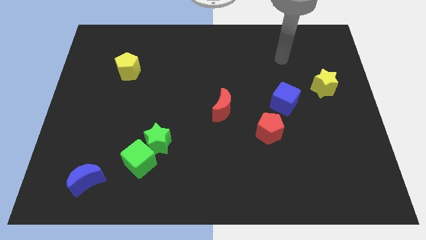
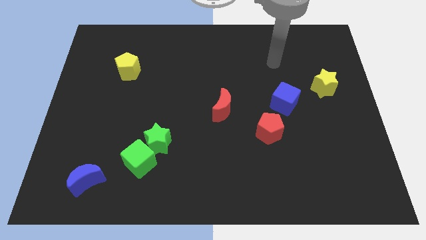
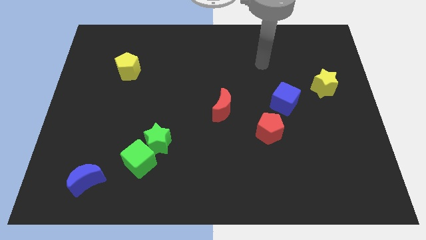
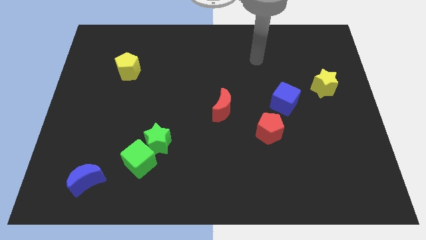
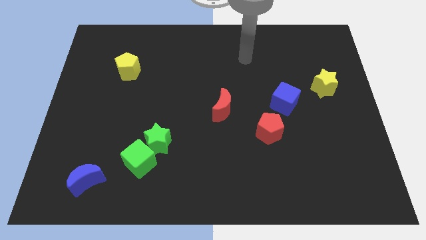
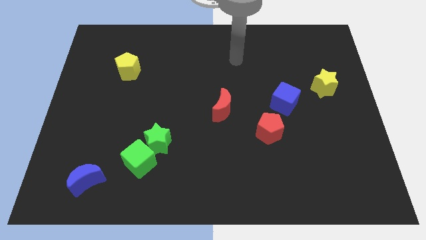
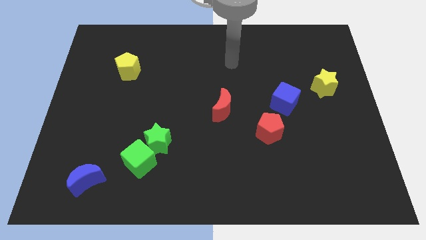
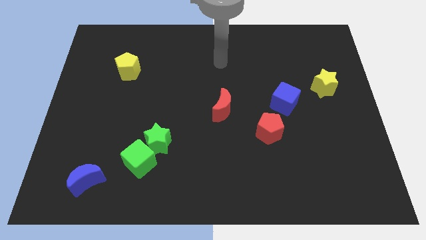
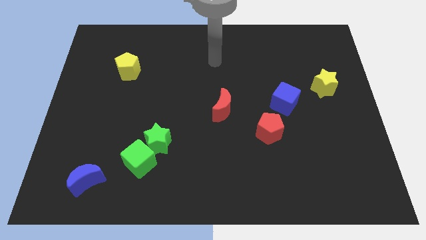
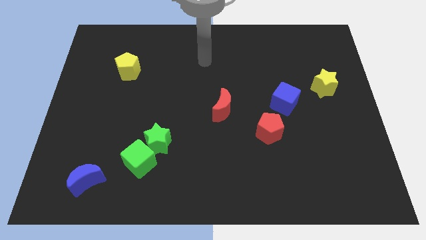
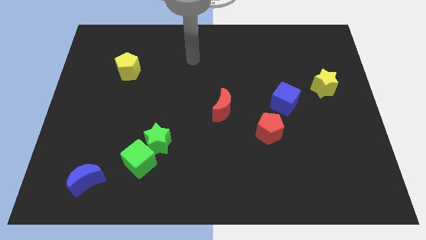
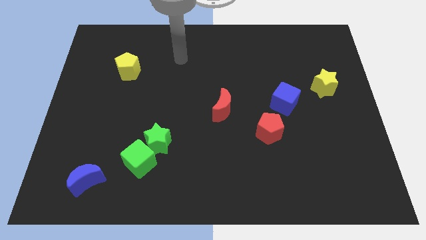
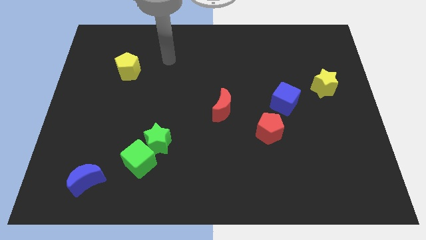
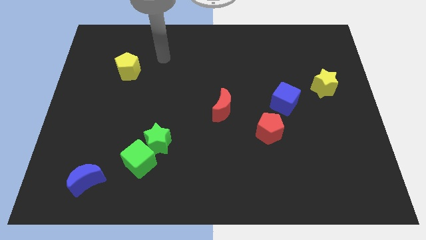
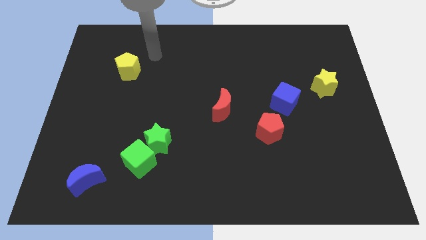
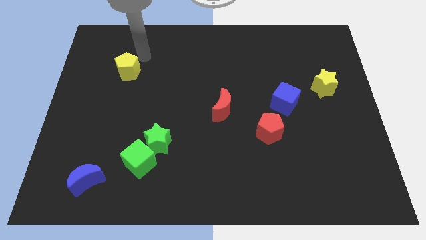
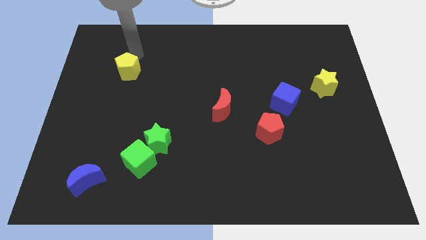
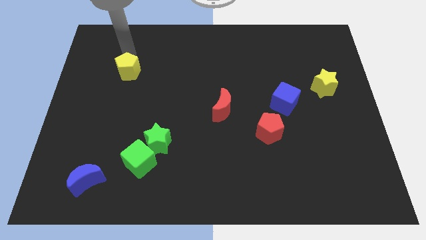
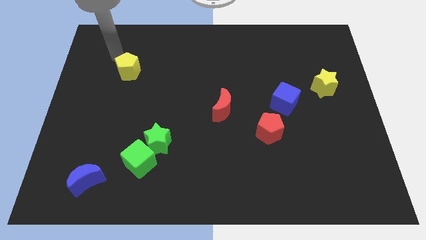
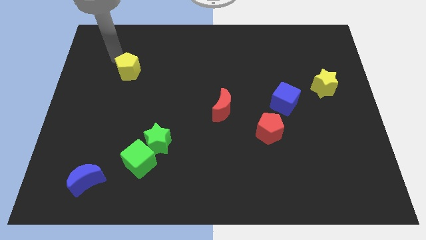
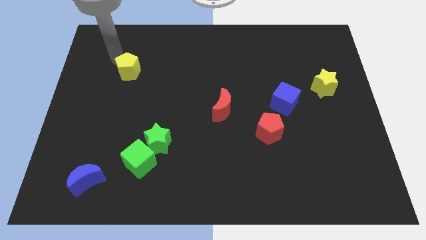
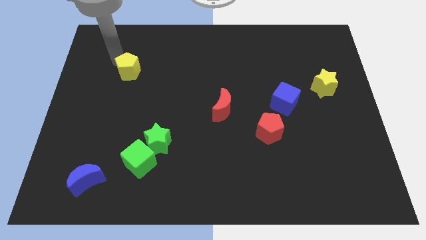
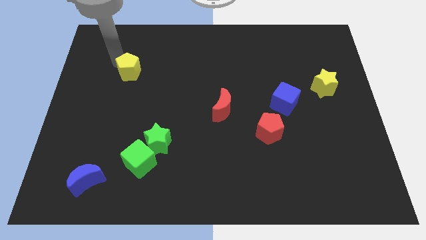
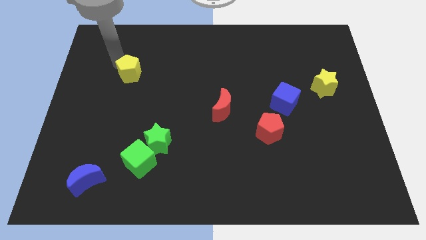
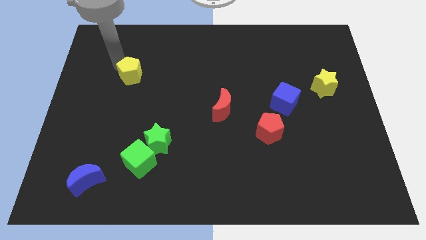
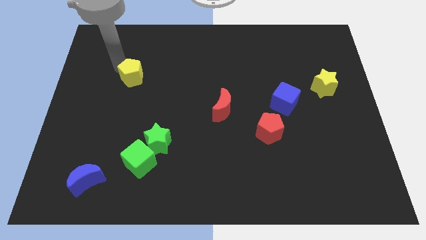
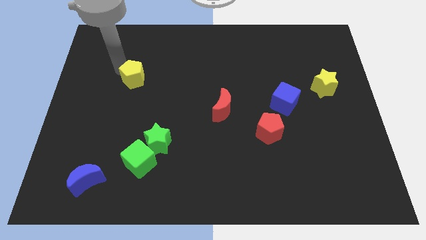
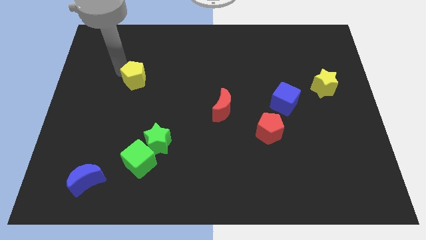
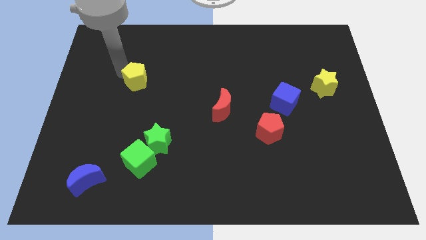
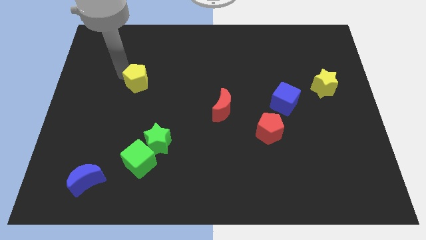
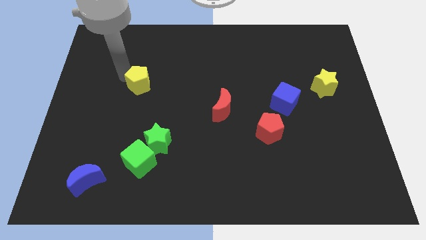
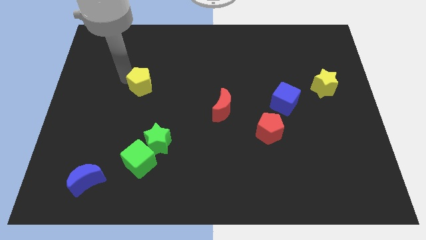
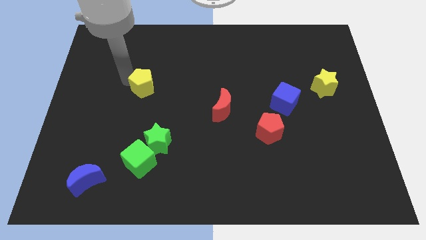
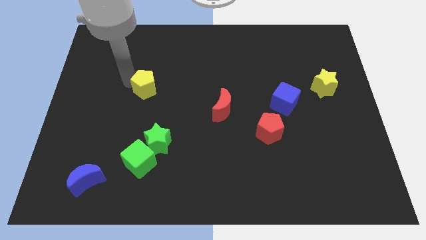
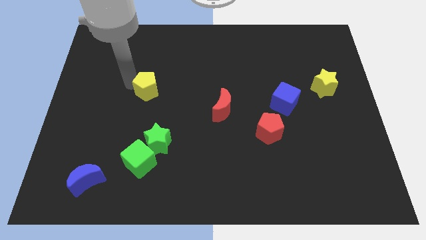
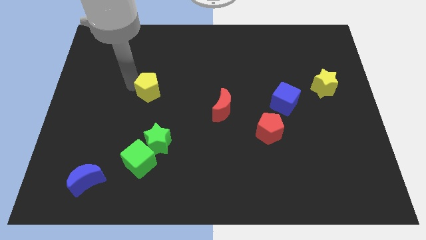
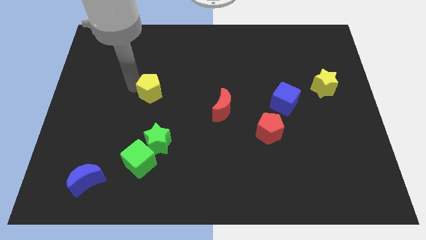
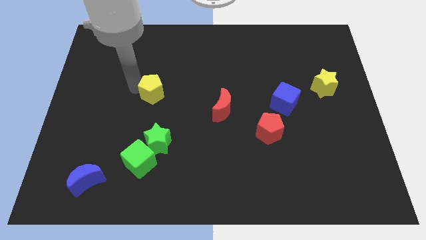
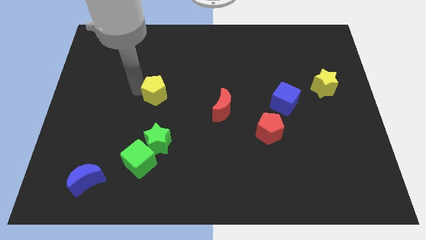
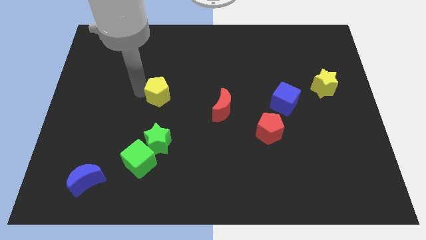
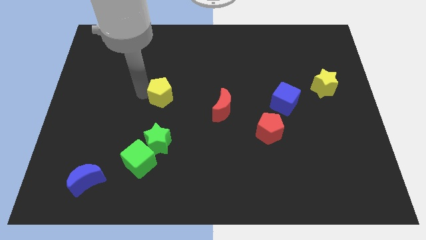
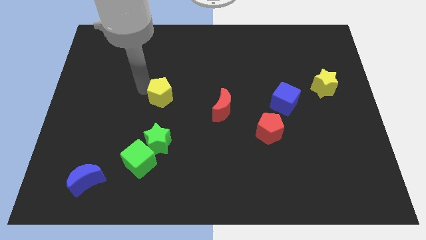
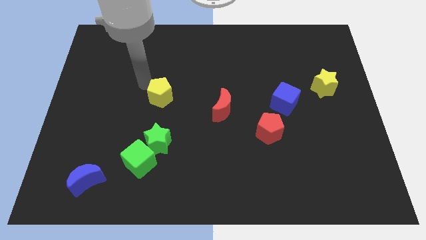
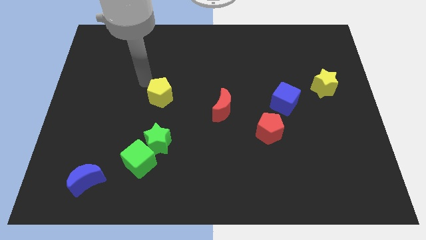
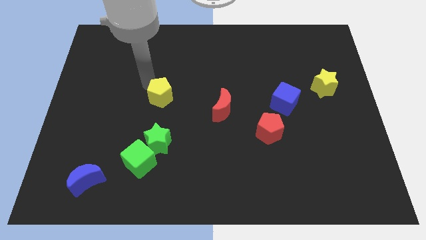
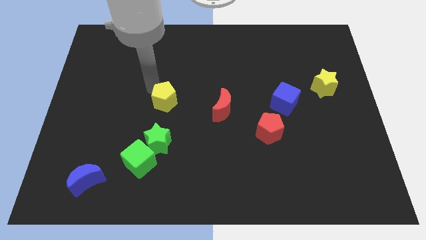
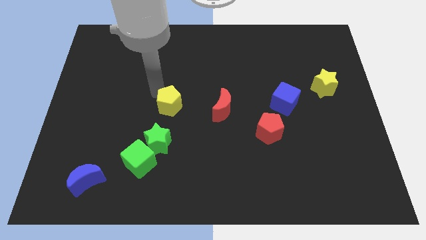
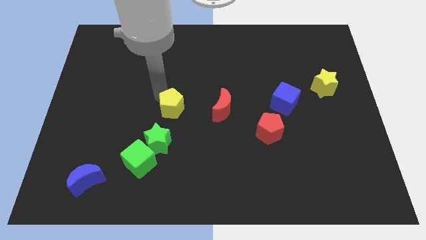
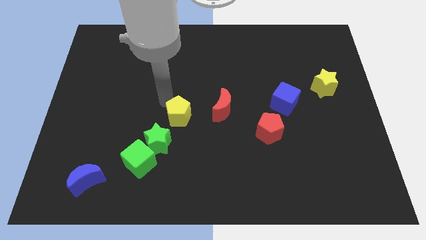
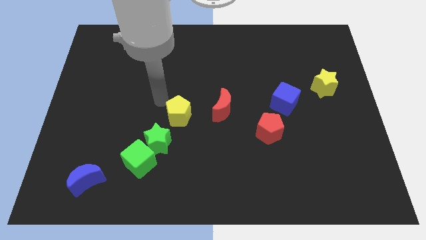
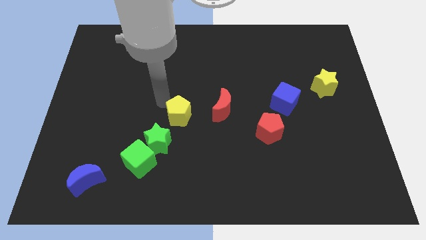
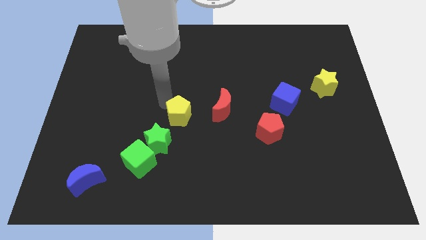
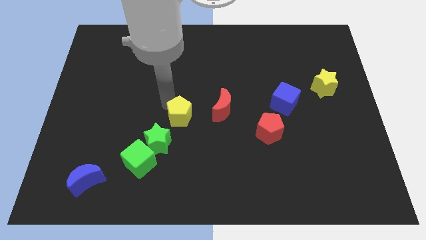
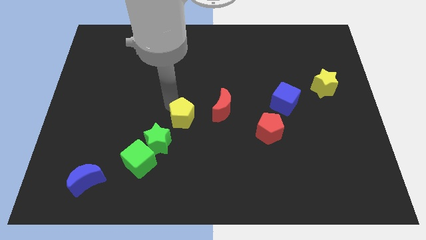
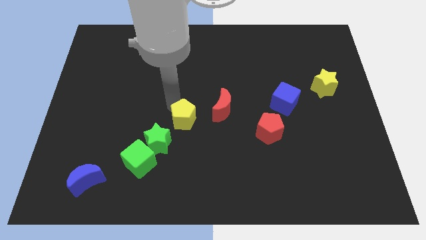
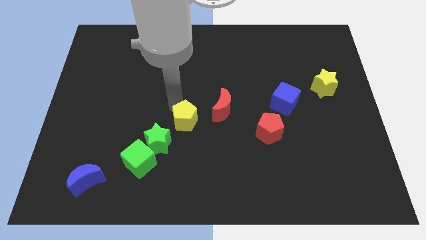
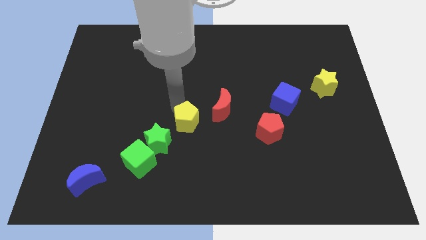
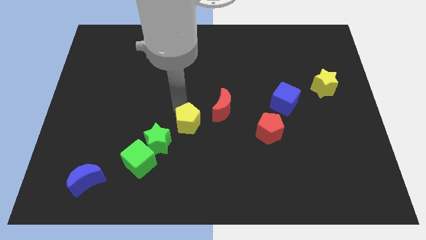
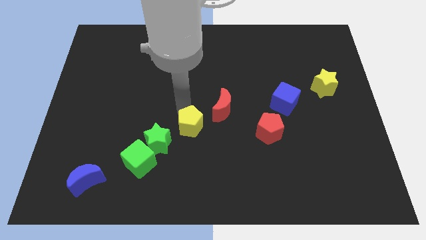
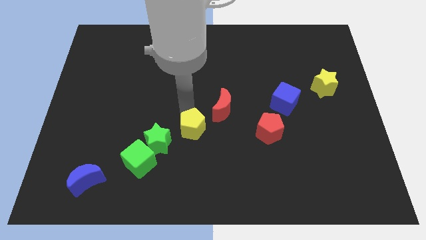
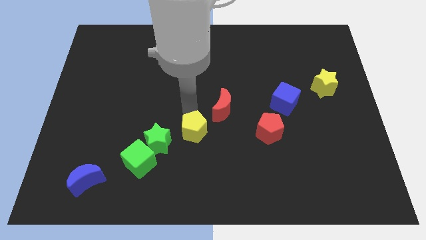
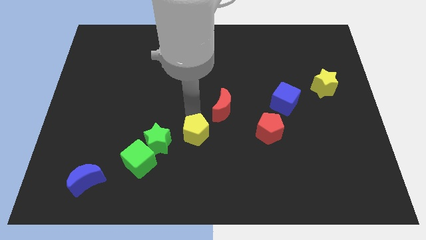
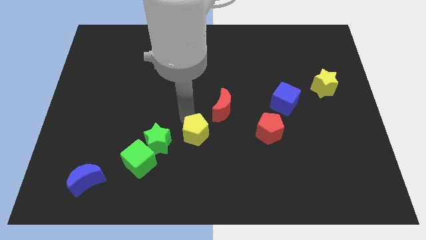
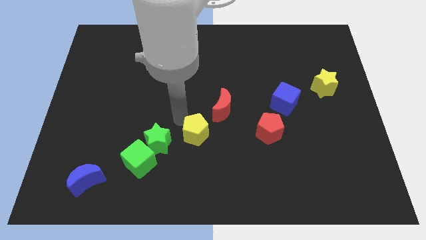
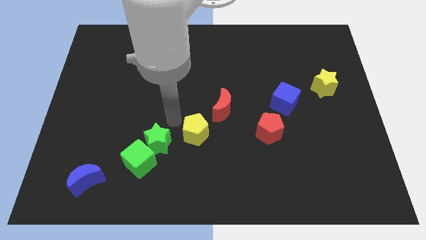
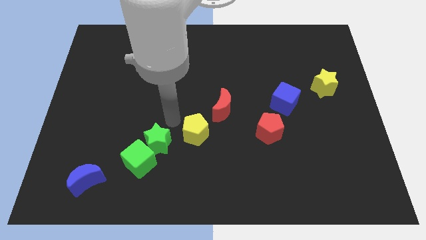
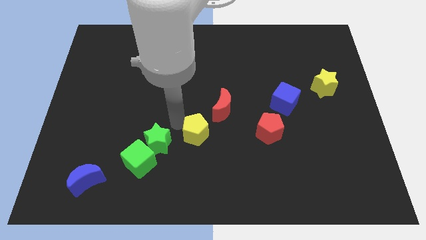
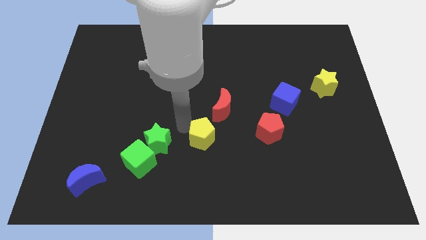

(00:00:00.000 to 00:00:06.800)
push the yellow pentagon to the bottom side of the red moon

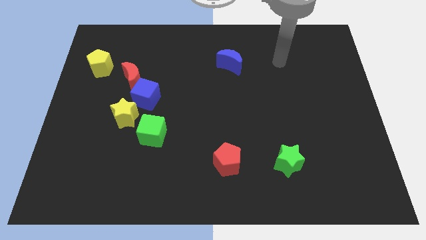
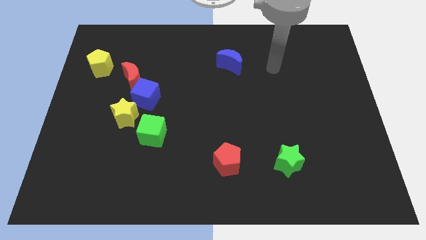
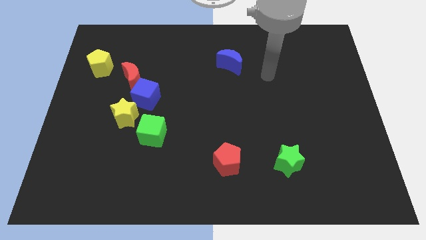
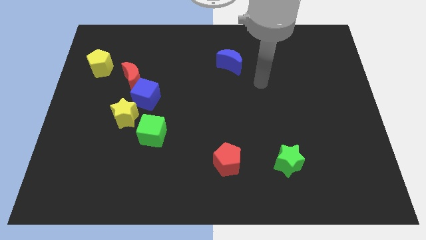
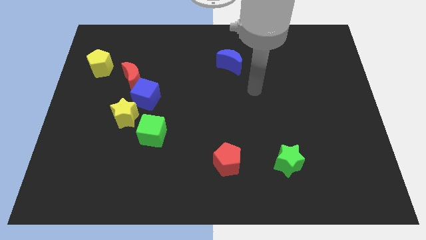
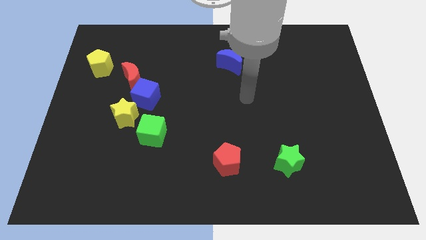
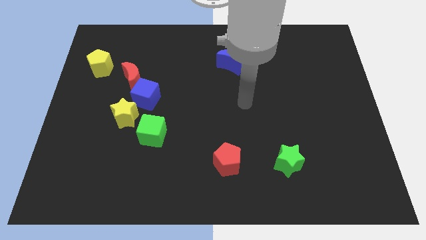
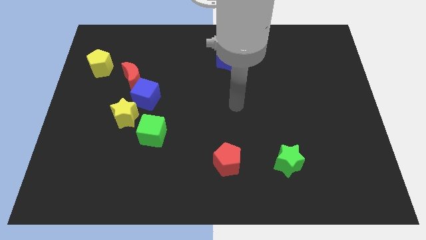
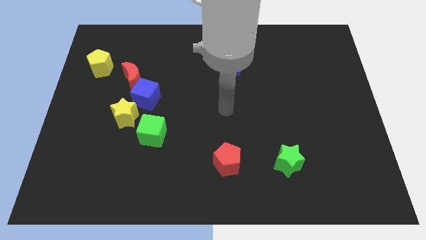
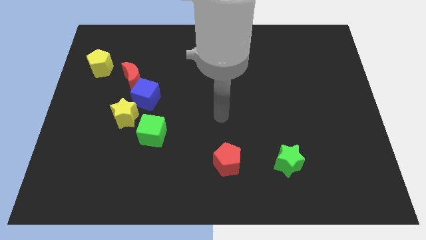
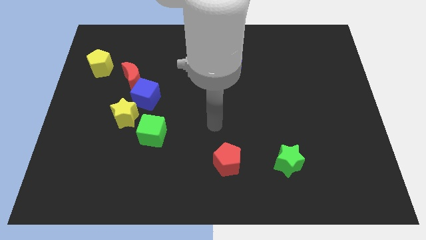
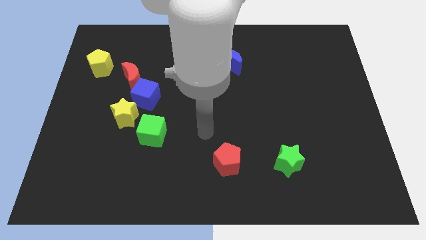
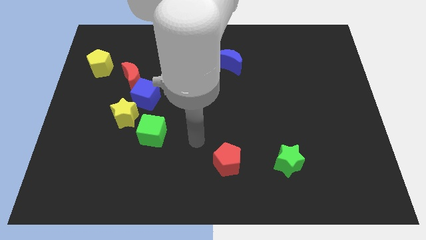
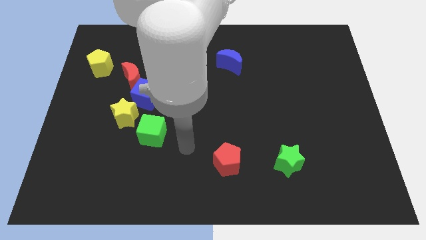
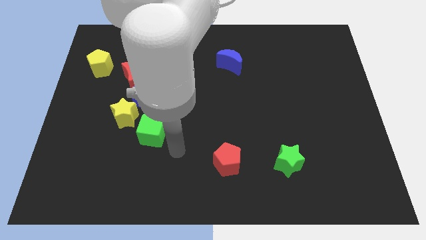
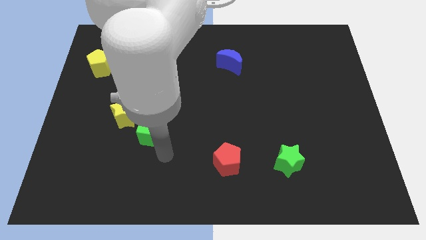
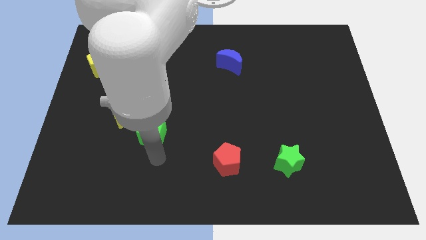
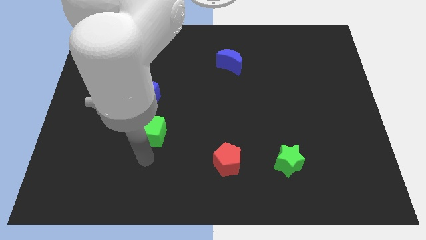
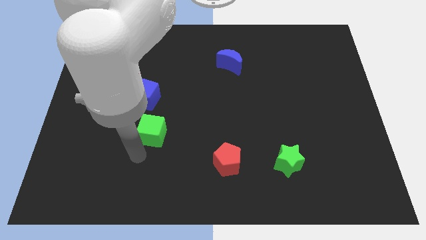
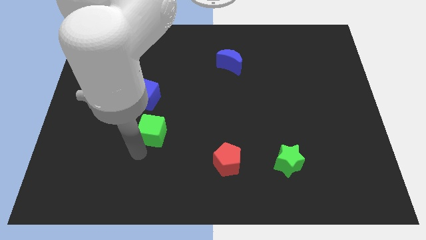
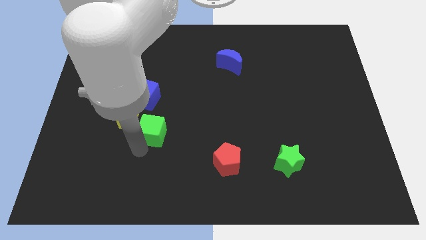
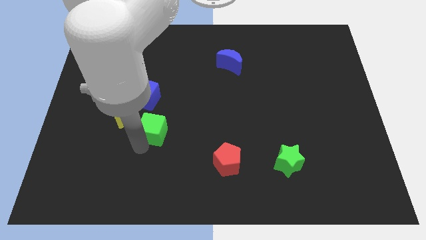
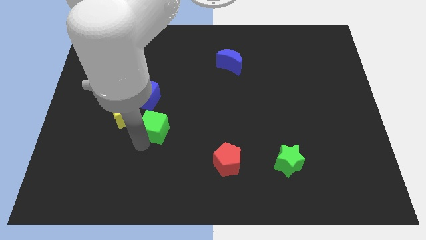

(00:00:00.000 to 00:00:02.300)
put the green cube to the bottom right side of the blue cube
